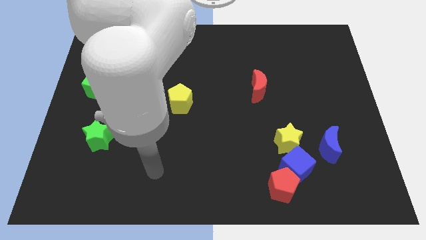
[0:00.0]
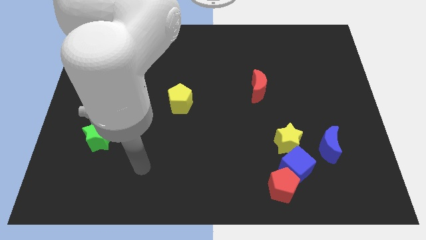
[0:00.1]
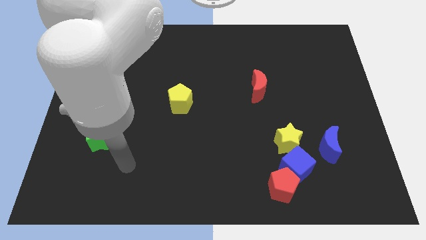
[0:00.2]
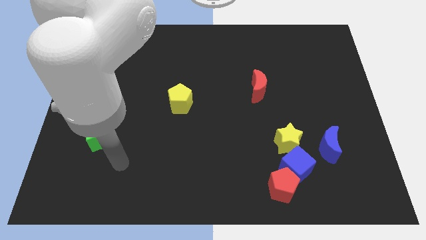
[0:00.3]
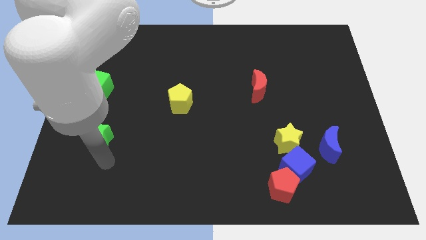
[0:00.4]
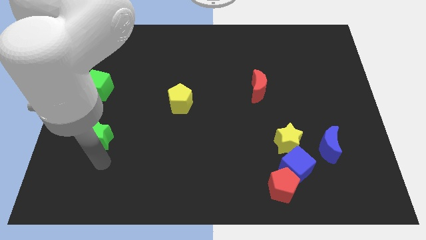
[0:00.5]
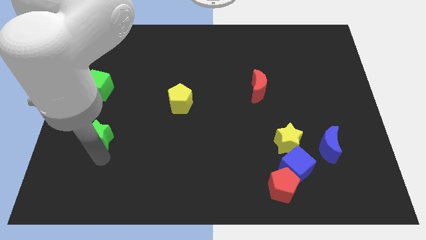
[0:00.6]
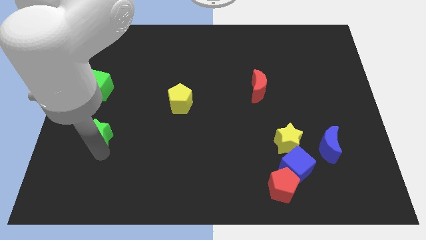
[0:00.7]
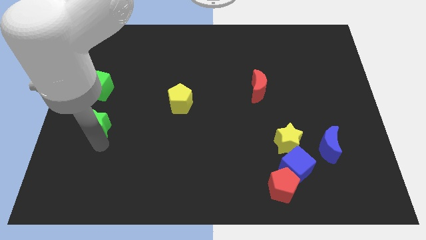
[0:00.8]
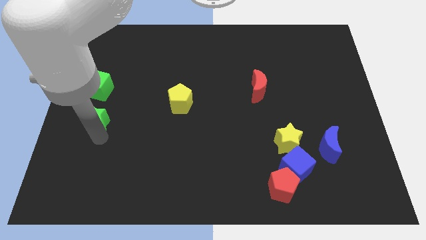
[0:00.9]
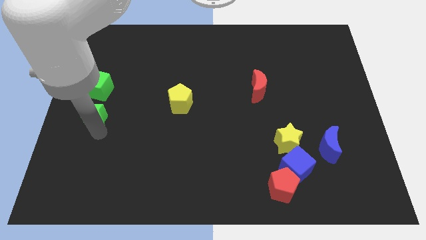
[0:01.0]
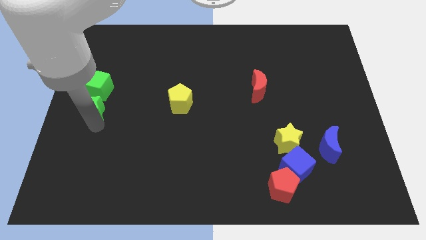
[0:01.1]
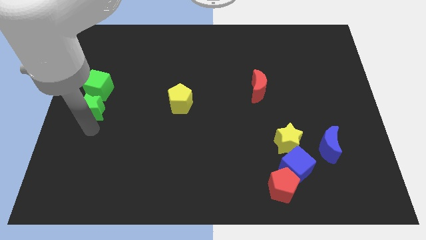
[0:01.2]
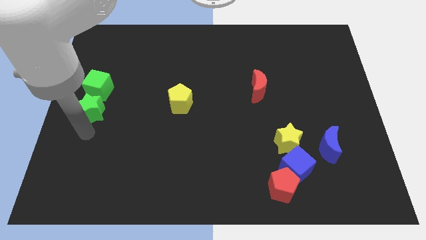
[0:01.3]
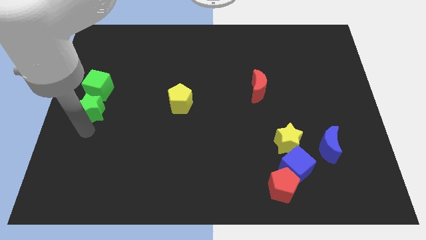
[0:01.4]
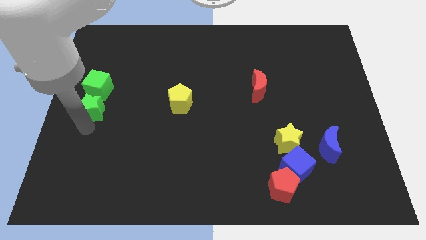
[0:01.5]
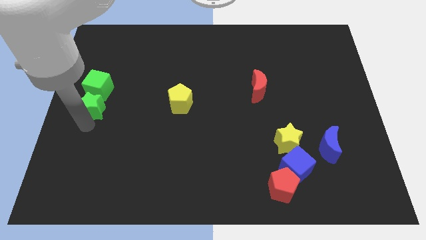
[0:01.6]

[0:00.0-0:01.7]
move the green star to the green cube

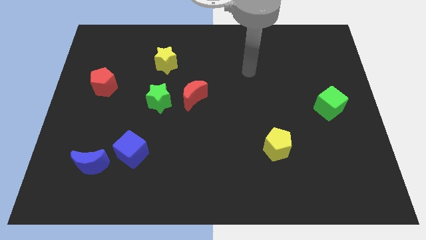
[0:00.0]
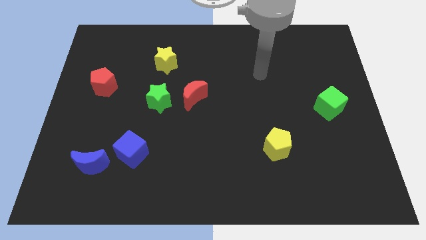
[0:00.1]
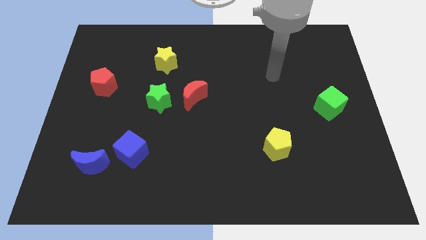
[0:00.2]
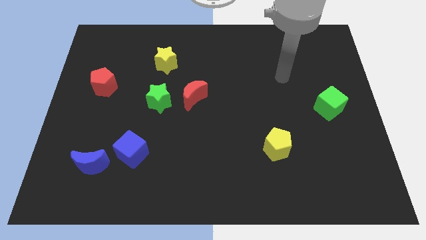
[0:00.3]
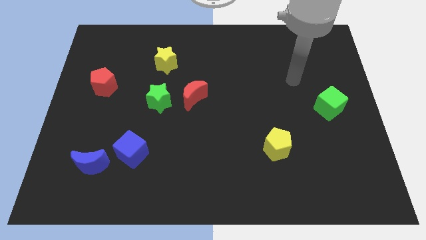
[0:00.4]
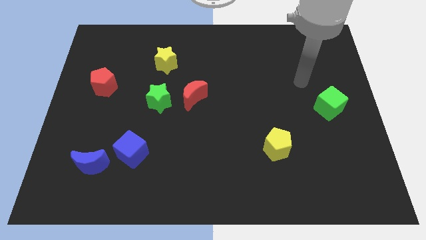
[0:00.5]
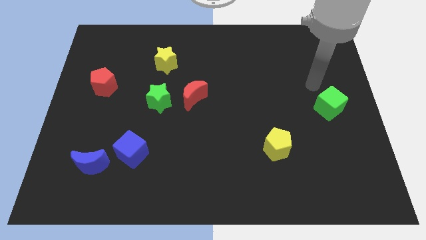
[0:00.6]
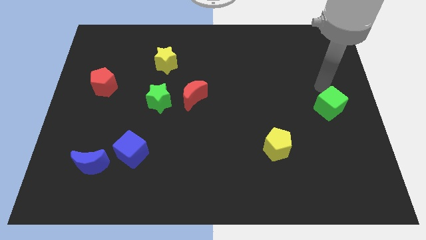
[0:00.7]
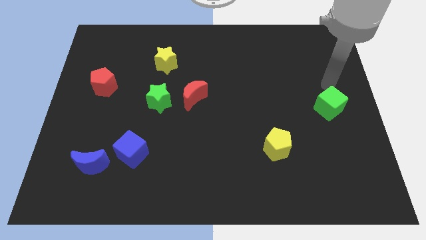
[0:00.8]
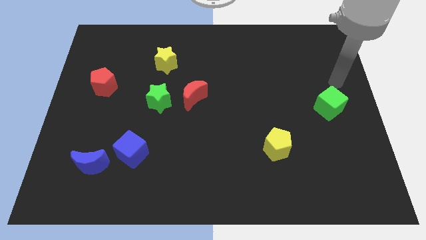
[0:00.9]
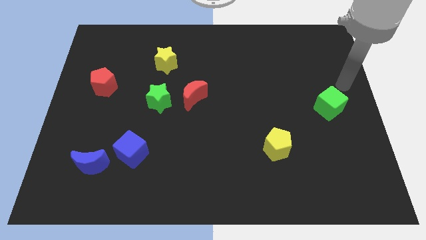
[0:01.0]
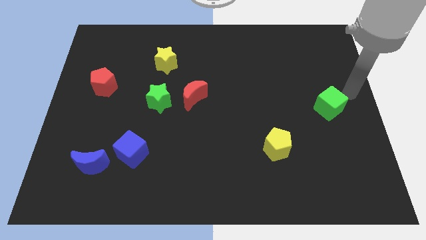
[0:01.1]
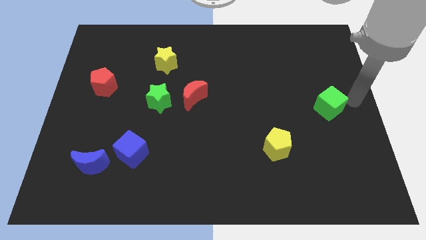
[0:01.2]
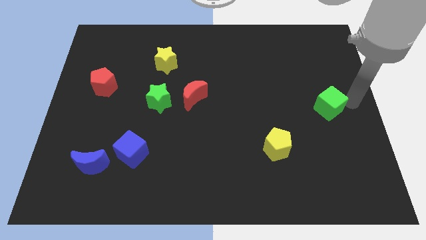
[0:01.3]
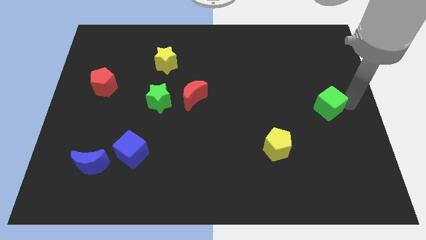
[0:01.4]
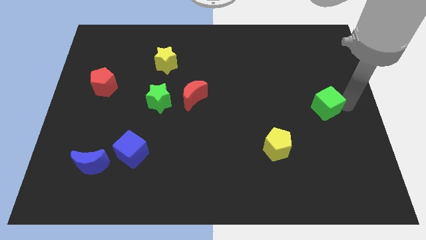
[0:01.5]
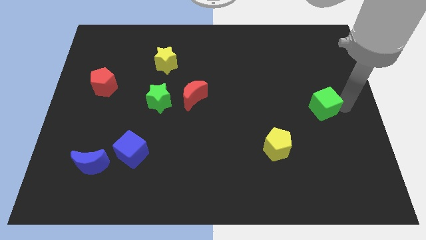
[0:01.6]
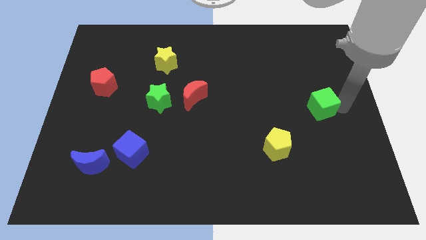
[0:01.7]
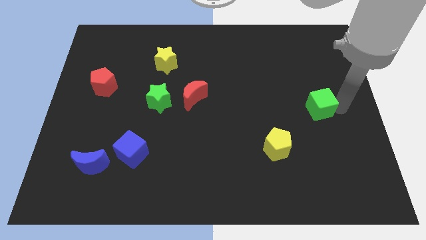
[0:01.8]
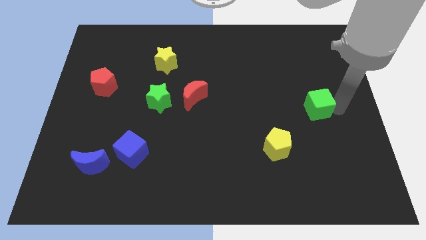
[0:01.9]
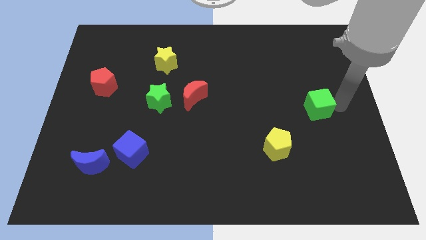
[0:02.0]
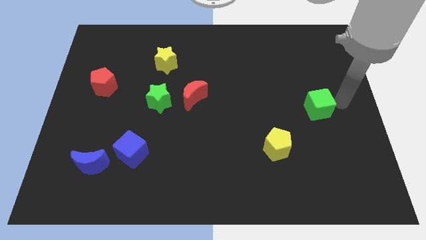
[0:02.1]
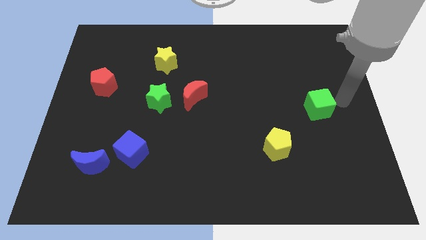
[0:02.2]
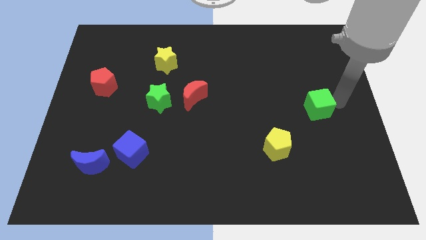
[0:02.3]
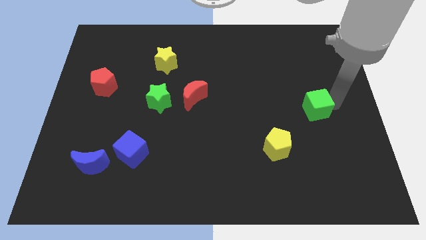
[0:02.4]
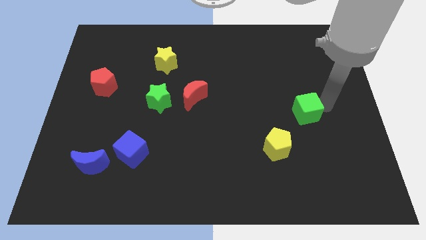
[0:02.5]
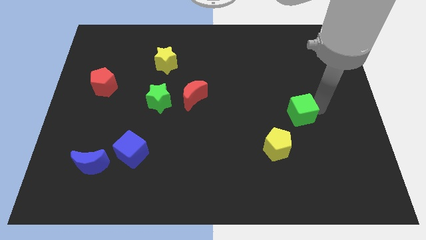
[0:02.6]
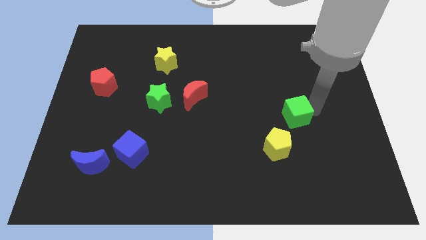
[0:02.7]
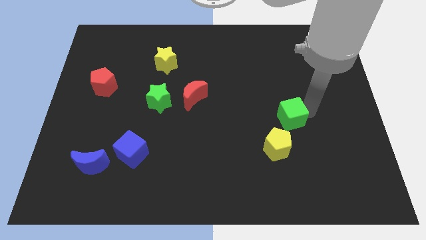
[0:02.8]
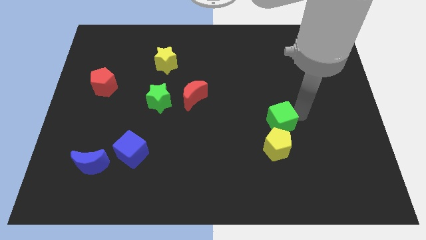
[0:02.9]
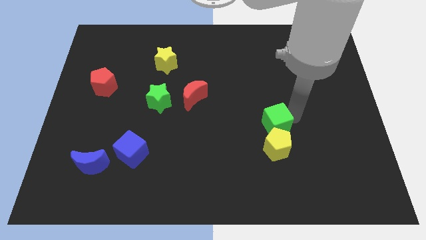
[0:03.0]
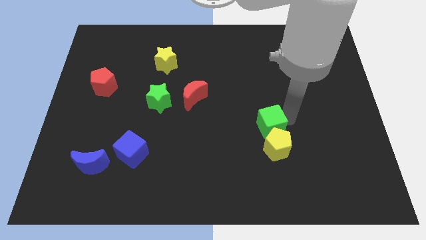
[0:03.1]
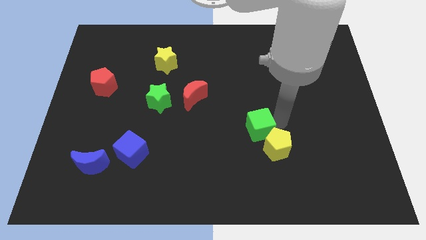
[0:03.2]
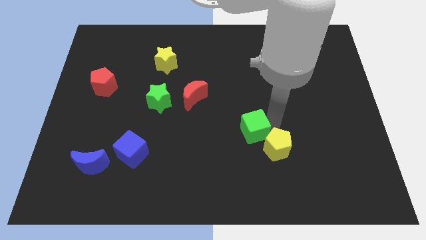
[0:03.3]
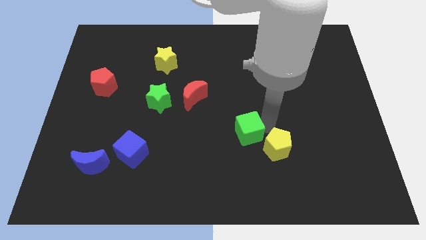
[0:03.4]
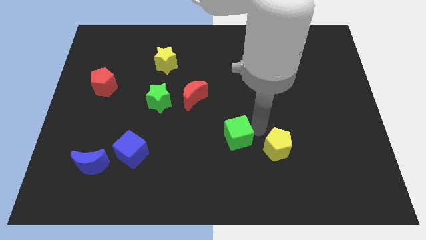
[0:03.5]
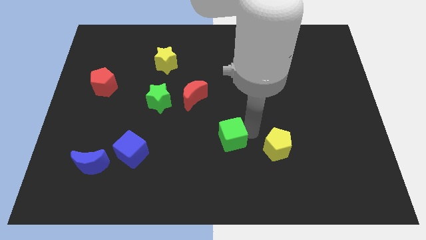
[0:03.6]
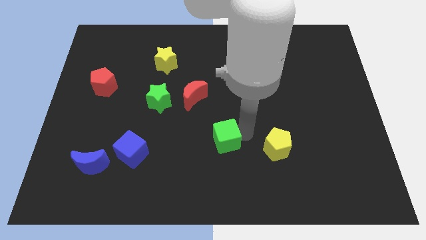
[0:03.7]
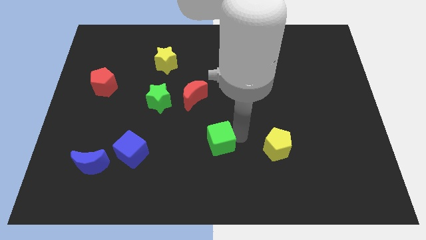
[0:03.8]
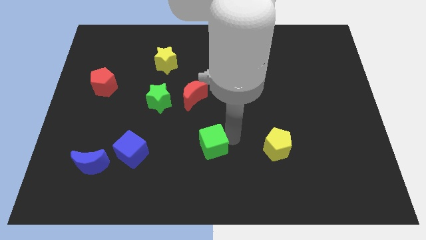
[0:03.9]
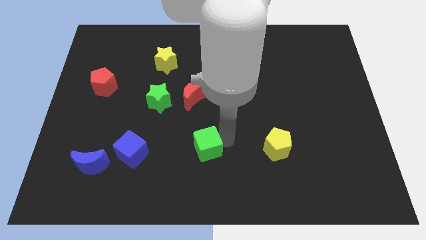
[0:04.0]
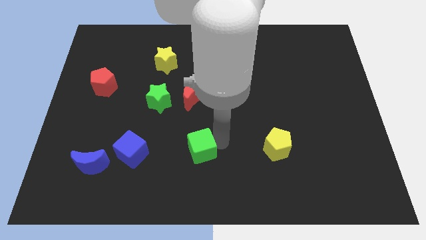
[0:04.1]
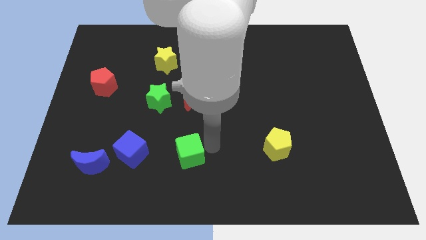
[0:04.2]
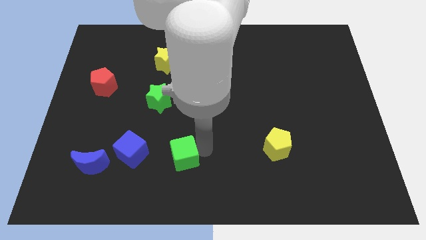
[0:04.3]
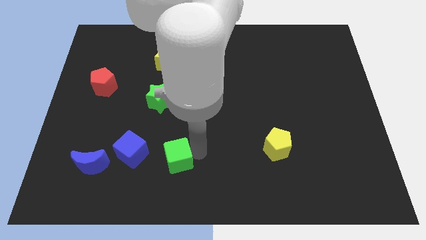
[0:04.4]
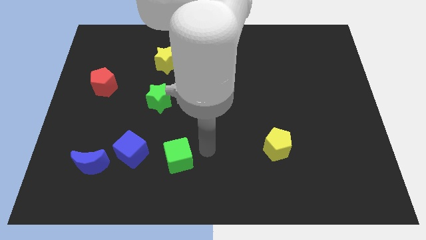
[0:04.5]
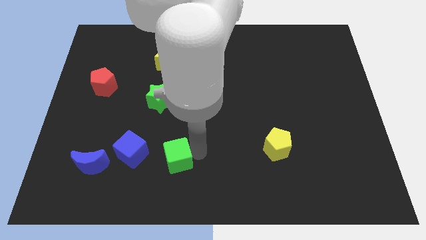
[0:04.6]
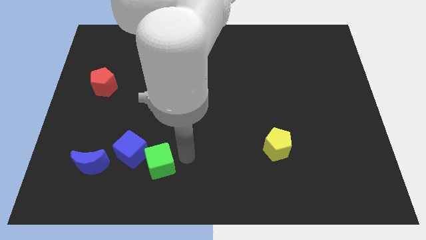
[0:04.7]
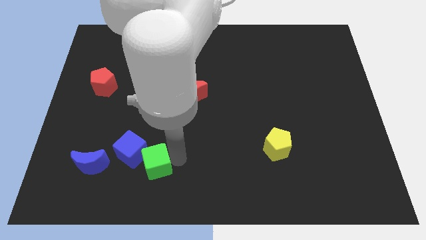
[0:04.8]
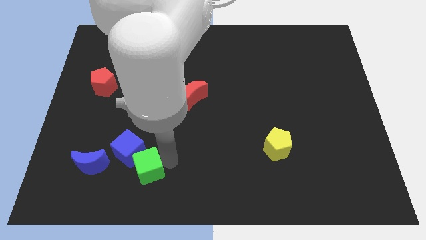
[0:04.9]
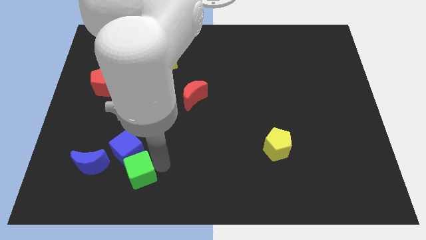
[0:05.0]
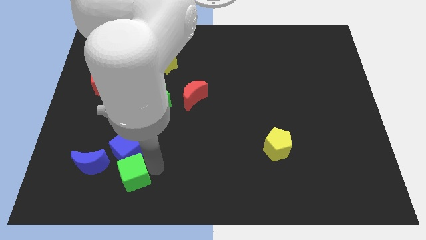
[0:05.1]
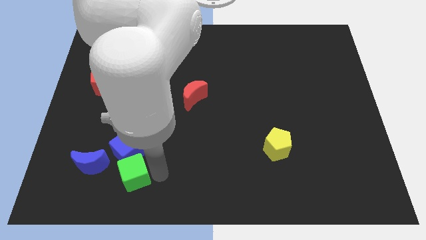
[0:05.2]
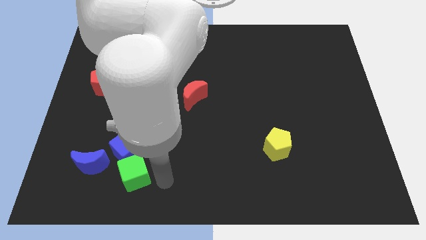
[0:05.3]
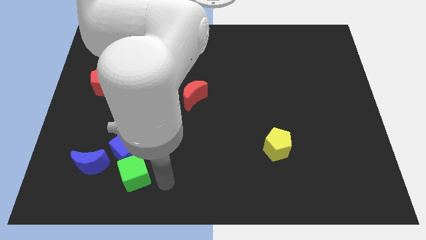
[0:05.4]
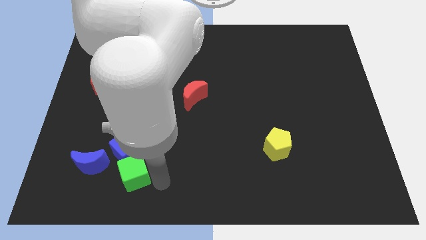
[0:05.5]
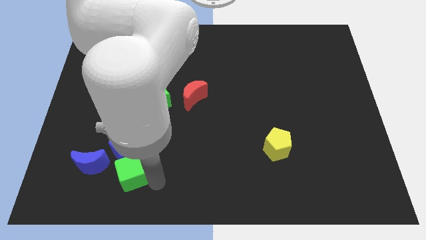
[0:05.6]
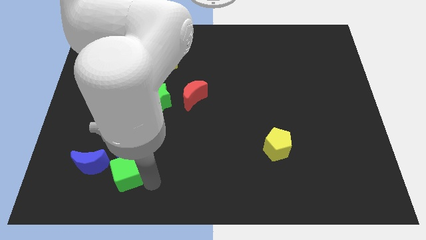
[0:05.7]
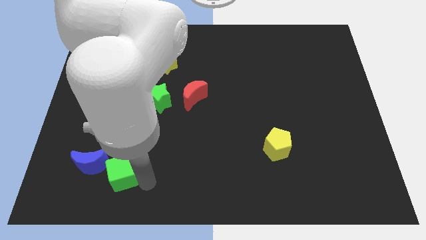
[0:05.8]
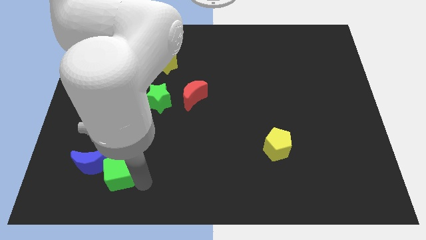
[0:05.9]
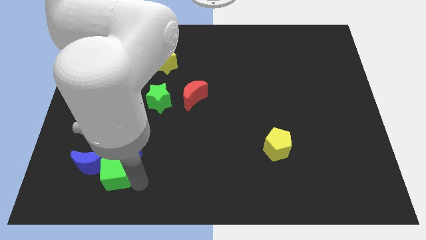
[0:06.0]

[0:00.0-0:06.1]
slide the green cube close to the blue moon
